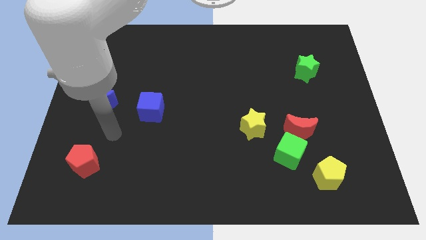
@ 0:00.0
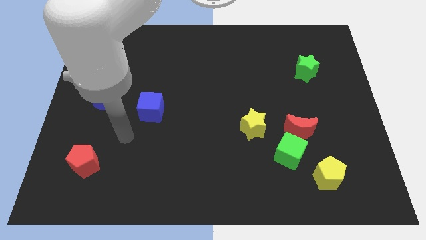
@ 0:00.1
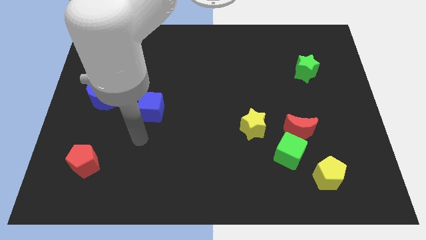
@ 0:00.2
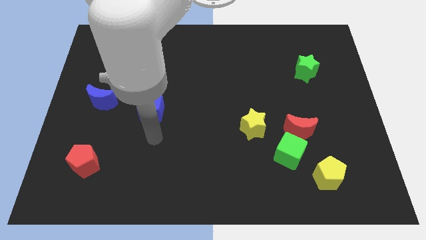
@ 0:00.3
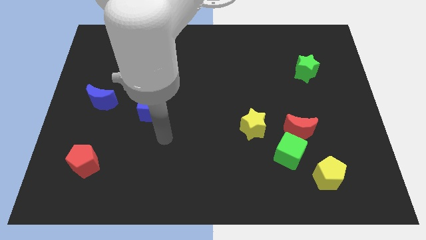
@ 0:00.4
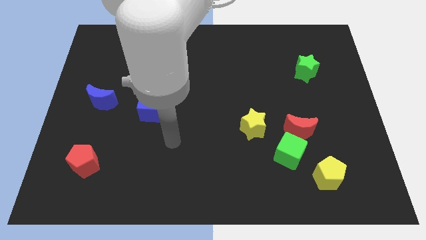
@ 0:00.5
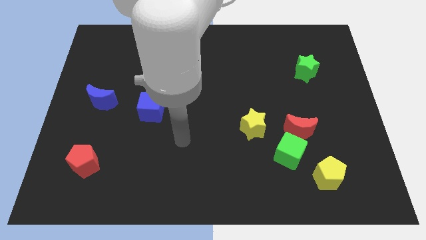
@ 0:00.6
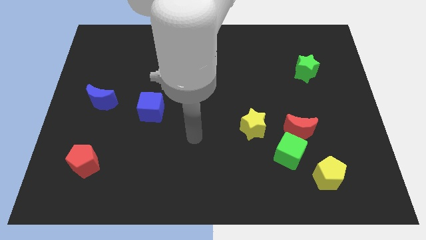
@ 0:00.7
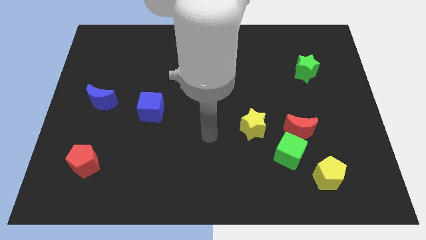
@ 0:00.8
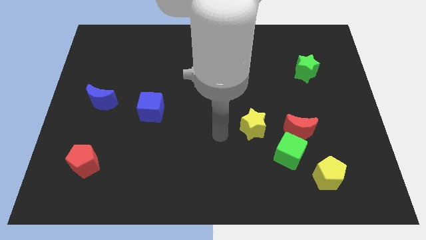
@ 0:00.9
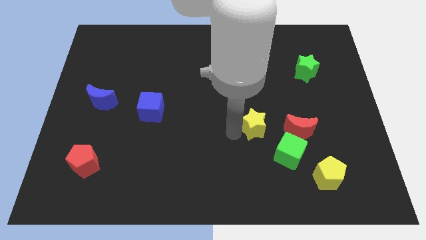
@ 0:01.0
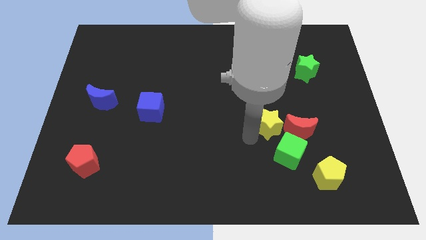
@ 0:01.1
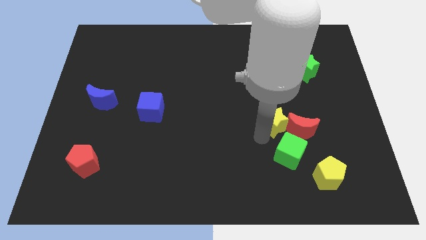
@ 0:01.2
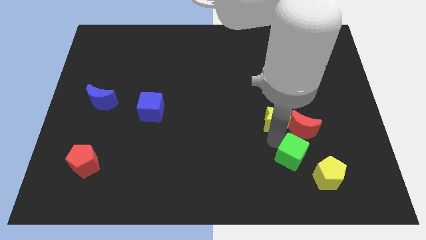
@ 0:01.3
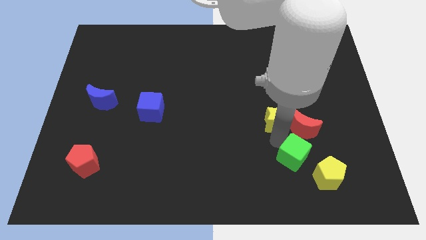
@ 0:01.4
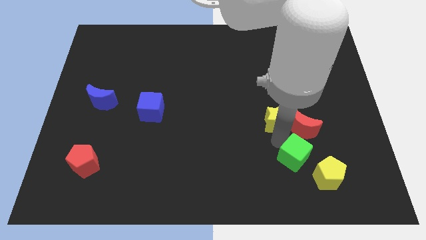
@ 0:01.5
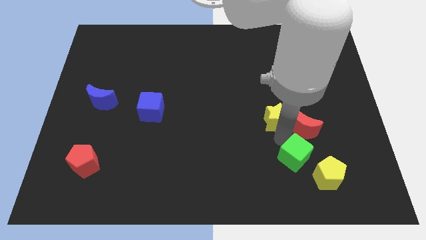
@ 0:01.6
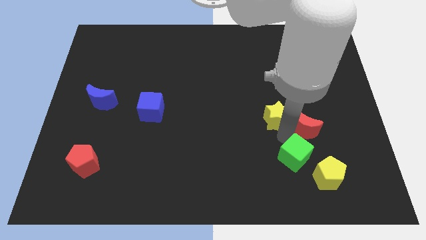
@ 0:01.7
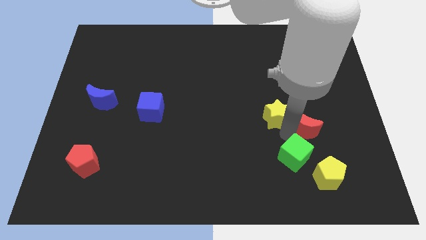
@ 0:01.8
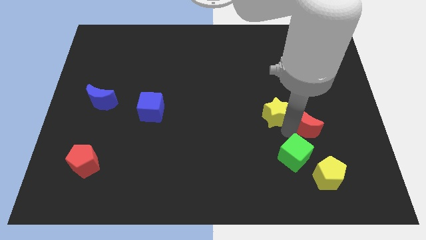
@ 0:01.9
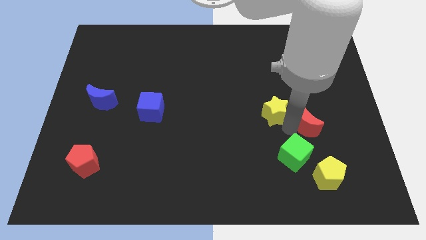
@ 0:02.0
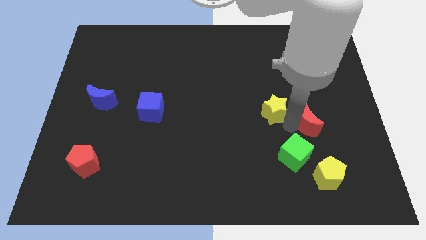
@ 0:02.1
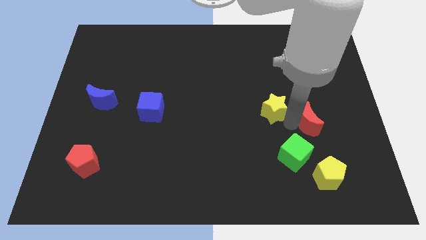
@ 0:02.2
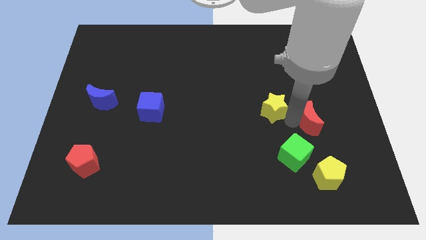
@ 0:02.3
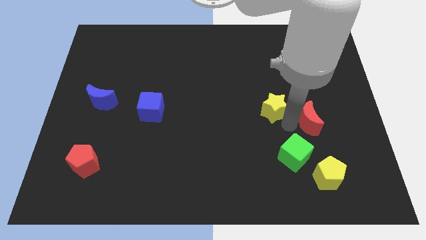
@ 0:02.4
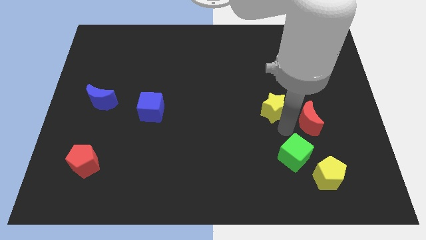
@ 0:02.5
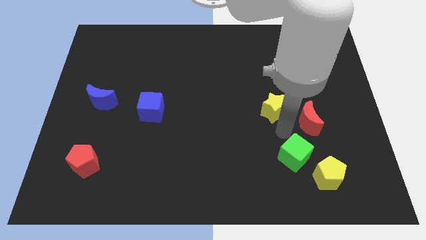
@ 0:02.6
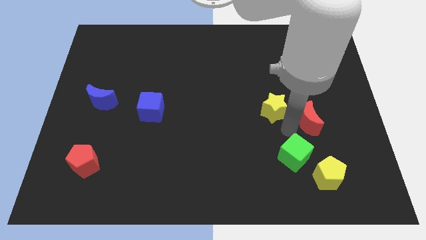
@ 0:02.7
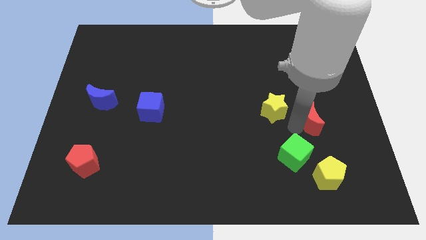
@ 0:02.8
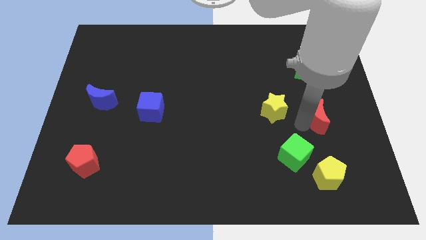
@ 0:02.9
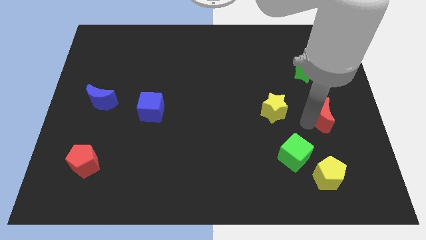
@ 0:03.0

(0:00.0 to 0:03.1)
pull the red moon apart from the green cube and yellow star

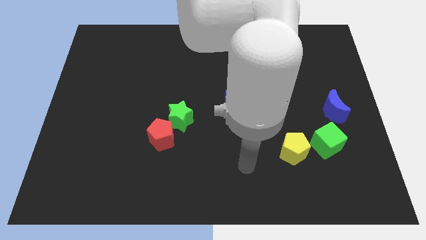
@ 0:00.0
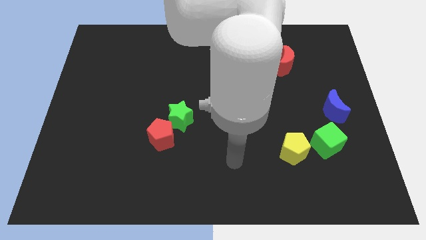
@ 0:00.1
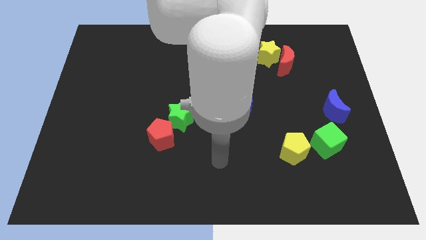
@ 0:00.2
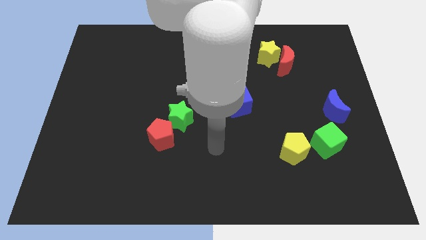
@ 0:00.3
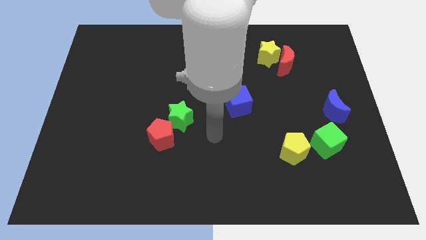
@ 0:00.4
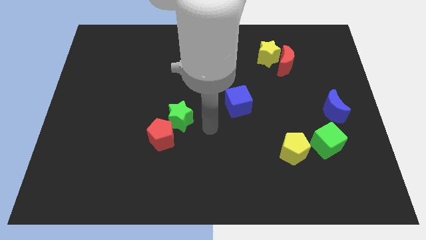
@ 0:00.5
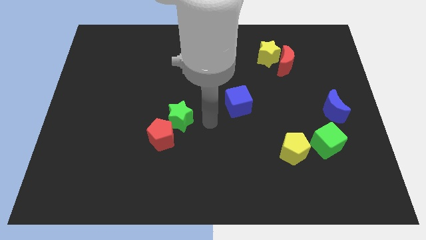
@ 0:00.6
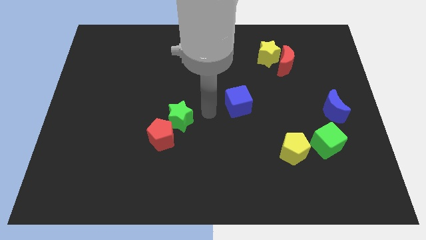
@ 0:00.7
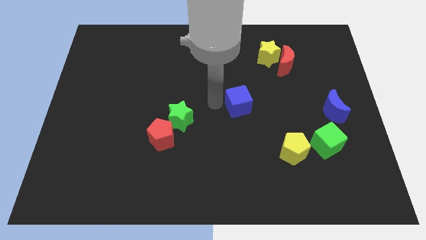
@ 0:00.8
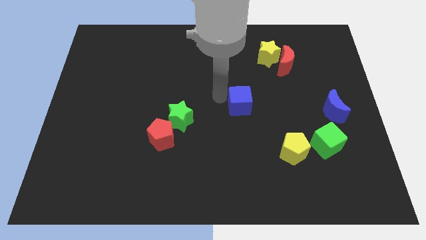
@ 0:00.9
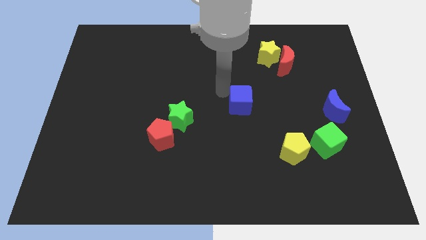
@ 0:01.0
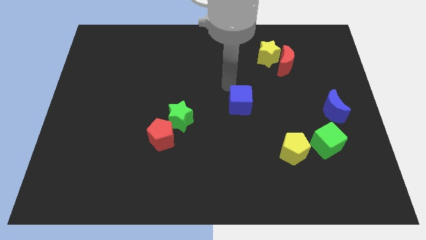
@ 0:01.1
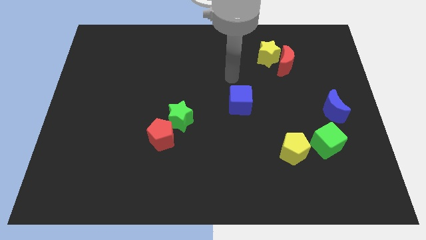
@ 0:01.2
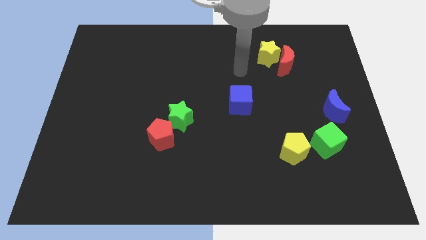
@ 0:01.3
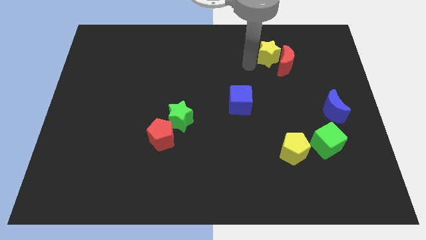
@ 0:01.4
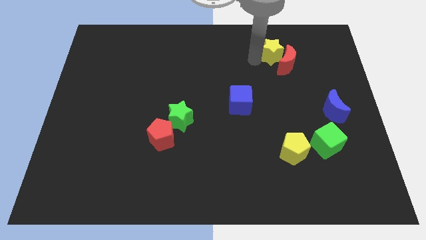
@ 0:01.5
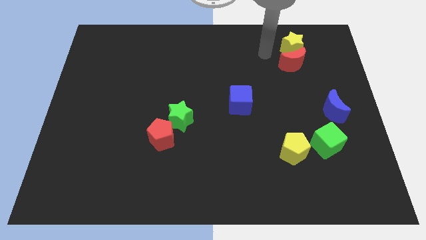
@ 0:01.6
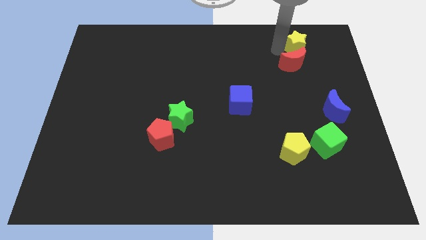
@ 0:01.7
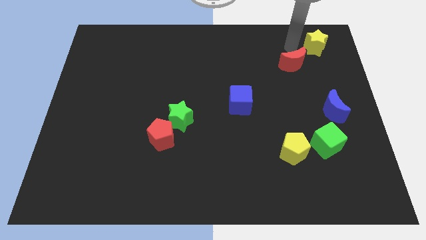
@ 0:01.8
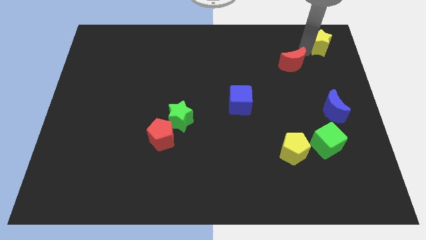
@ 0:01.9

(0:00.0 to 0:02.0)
move the red moon away from the yellow star

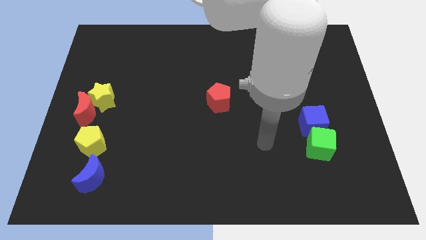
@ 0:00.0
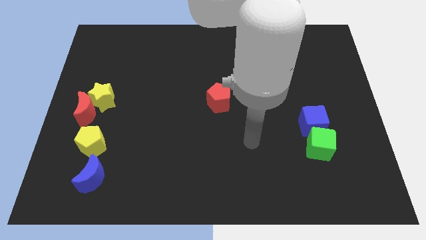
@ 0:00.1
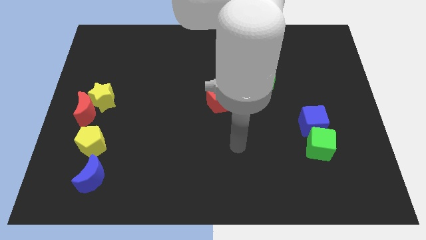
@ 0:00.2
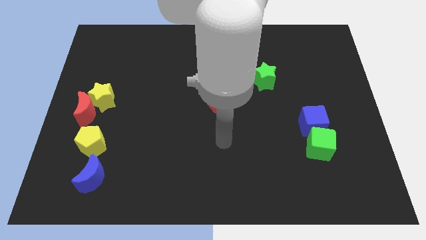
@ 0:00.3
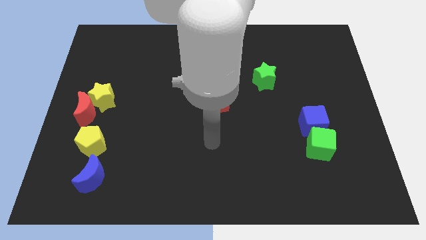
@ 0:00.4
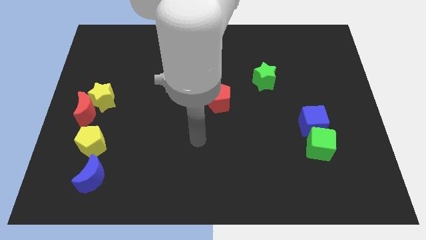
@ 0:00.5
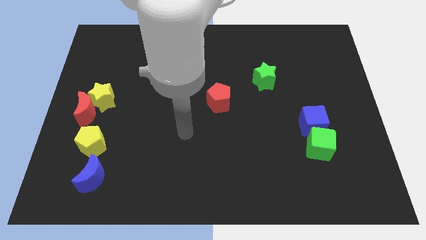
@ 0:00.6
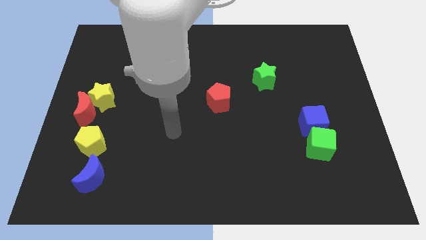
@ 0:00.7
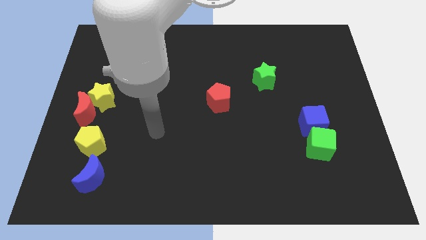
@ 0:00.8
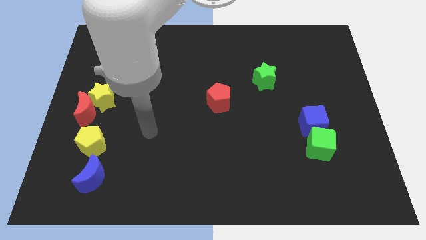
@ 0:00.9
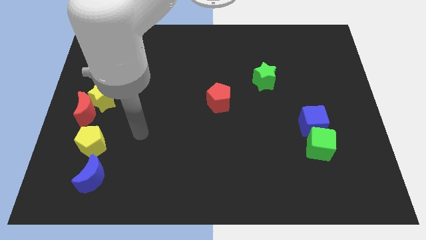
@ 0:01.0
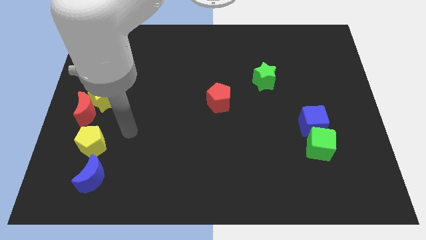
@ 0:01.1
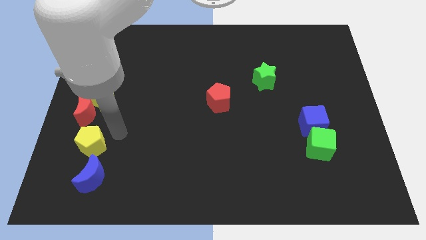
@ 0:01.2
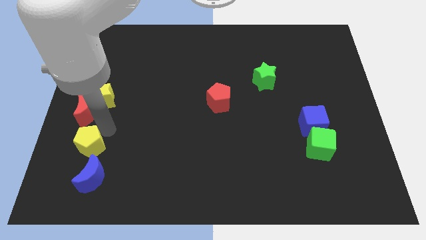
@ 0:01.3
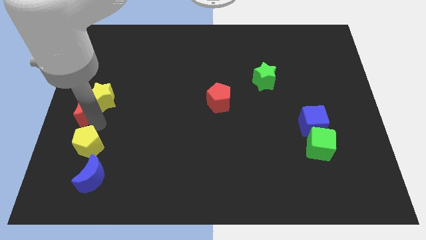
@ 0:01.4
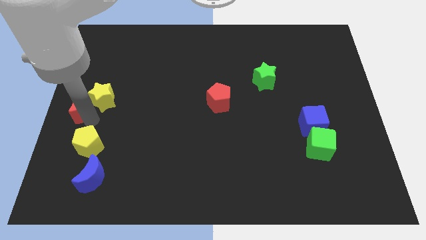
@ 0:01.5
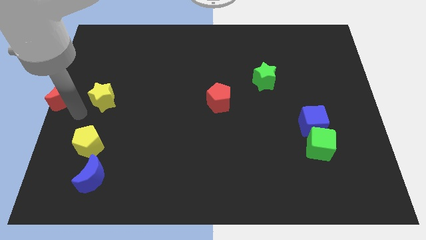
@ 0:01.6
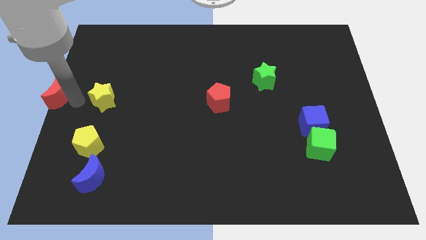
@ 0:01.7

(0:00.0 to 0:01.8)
separate the yellow star from the red moon

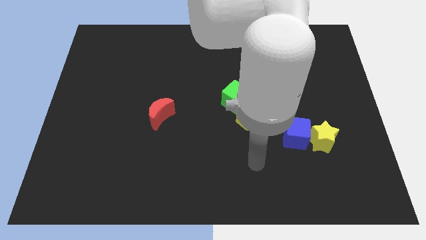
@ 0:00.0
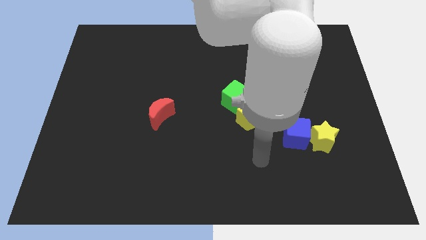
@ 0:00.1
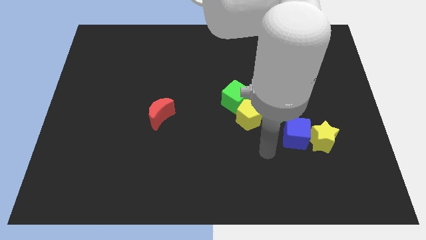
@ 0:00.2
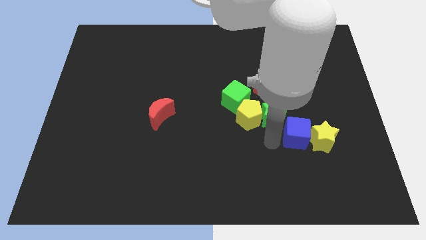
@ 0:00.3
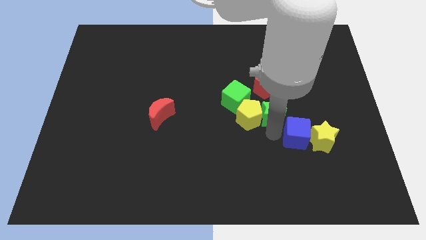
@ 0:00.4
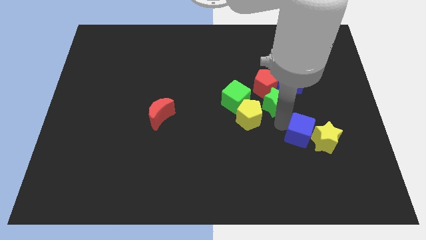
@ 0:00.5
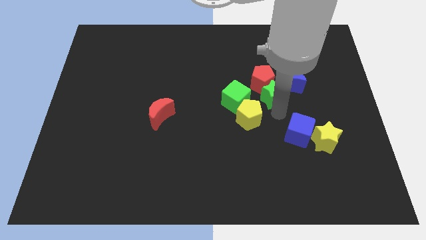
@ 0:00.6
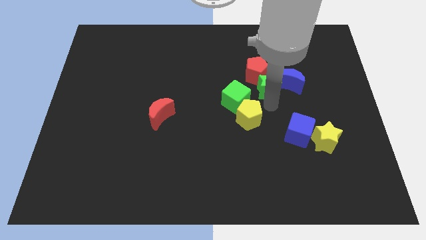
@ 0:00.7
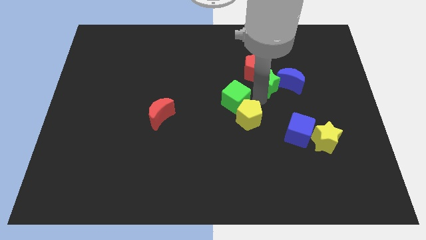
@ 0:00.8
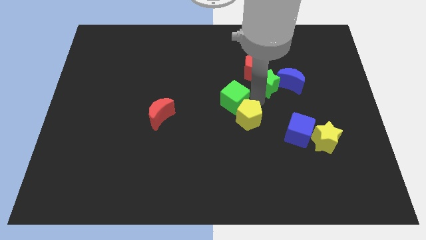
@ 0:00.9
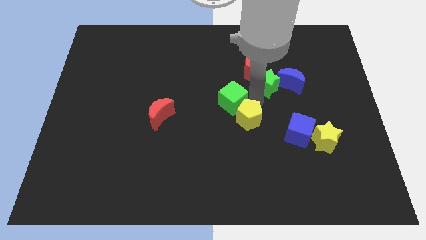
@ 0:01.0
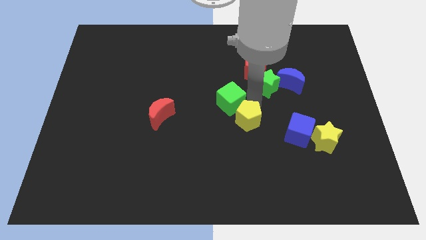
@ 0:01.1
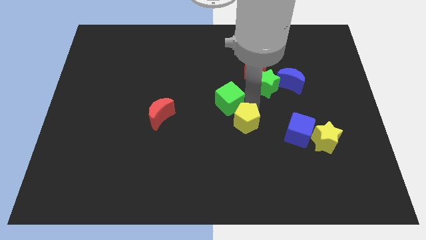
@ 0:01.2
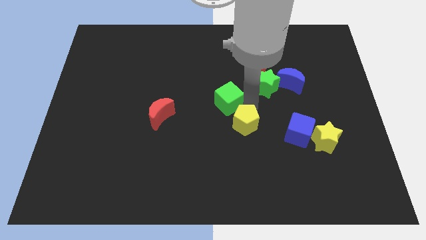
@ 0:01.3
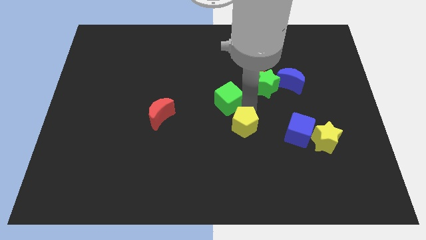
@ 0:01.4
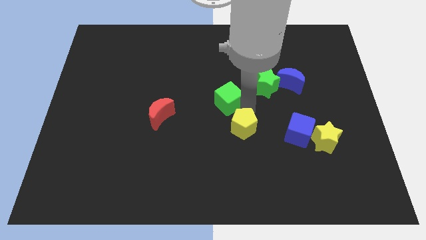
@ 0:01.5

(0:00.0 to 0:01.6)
move the yellow pentagon away from the green star and green cube

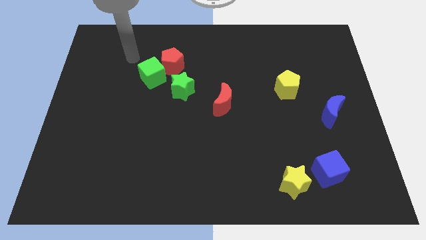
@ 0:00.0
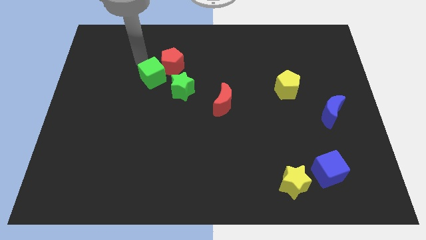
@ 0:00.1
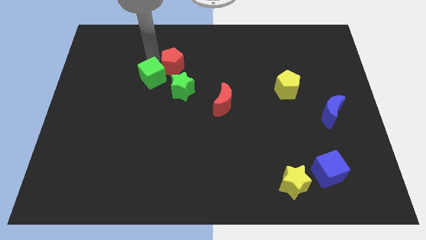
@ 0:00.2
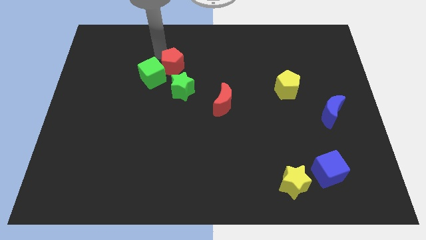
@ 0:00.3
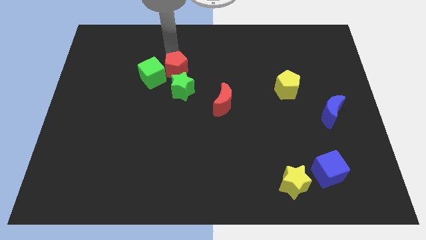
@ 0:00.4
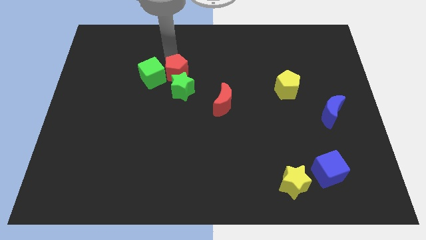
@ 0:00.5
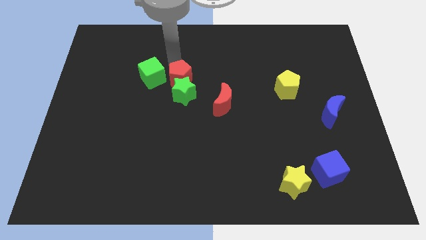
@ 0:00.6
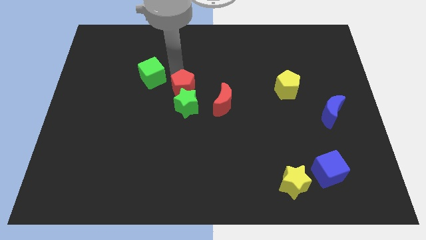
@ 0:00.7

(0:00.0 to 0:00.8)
separate the green cube from the red pentagon and green star
